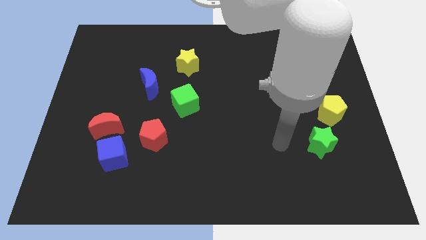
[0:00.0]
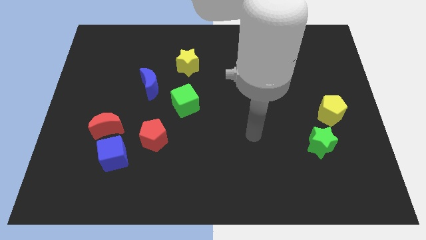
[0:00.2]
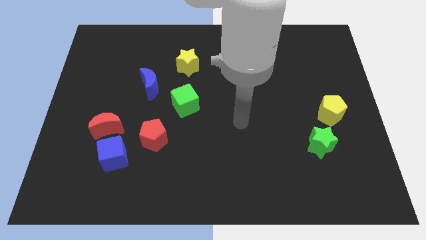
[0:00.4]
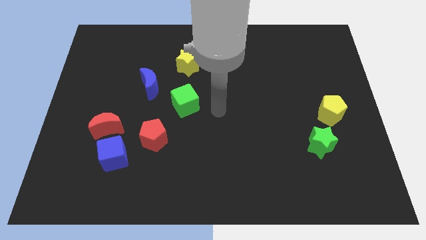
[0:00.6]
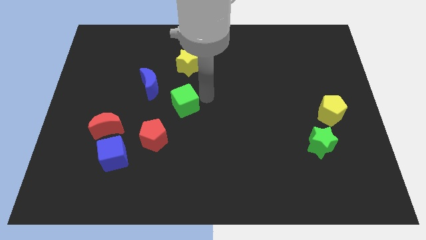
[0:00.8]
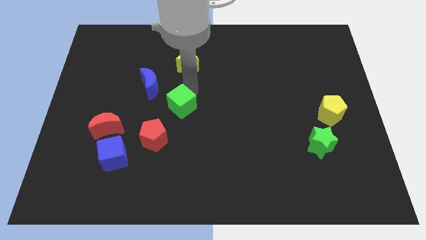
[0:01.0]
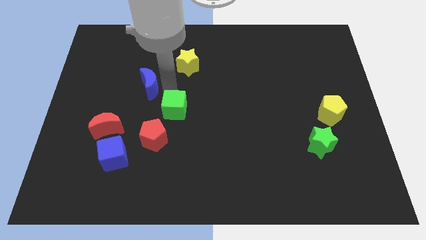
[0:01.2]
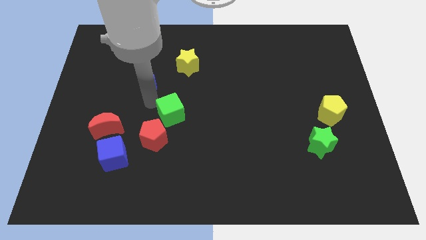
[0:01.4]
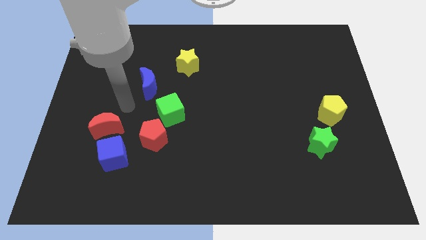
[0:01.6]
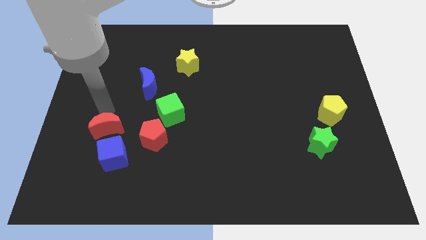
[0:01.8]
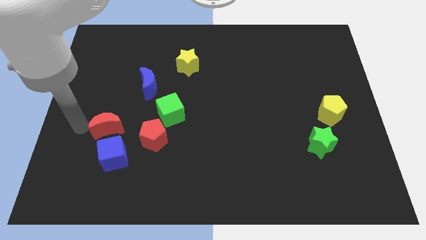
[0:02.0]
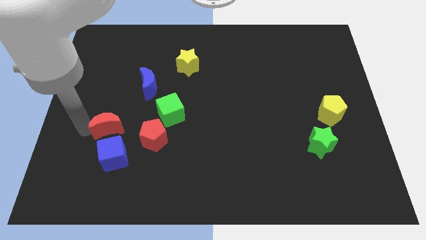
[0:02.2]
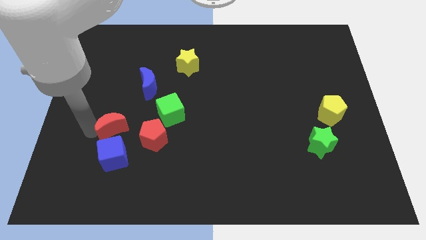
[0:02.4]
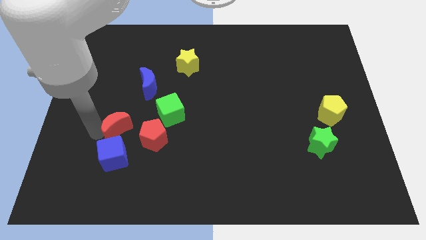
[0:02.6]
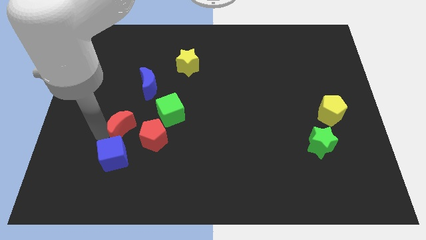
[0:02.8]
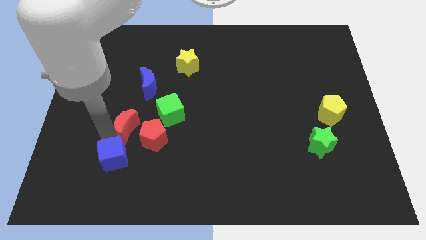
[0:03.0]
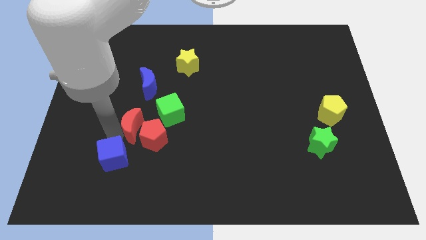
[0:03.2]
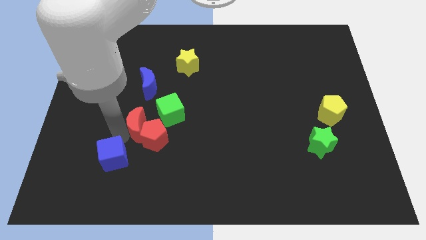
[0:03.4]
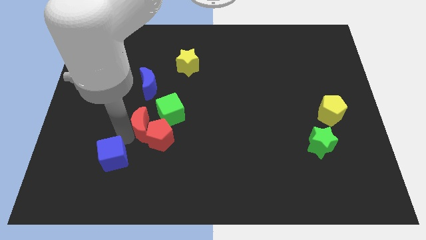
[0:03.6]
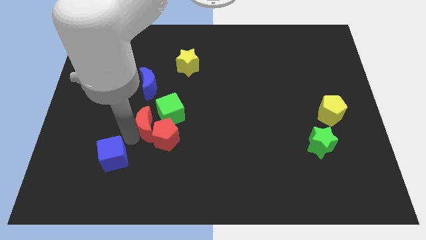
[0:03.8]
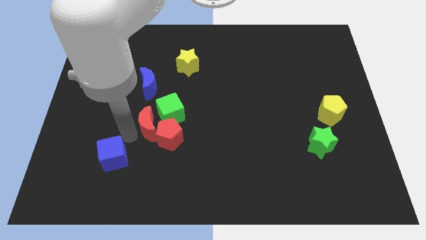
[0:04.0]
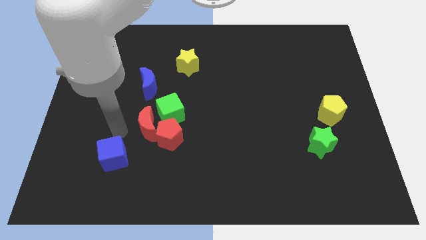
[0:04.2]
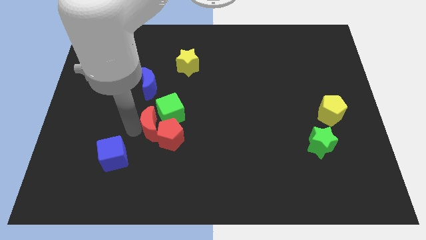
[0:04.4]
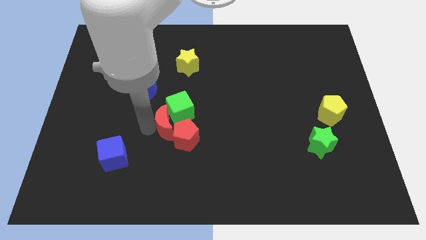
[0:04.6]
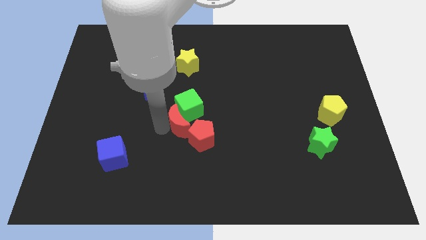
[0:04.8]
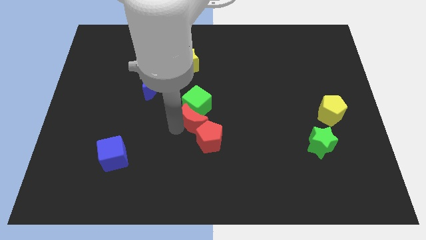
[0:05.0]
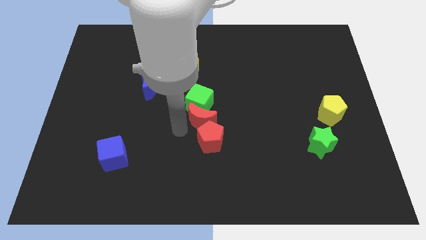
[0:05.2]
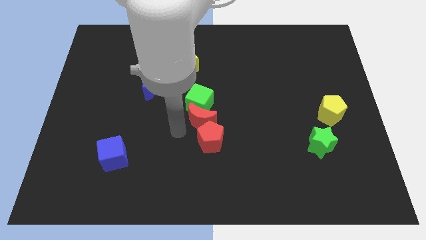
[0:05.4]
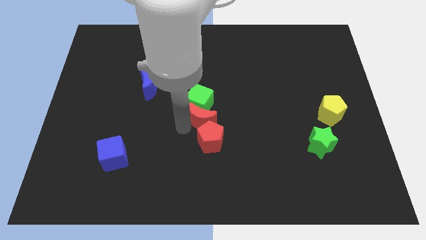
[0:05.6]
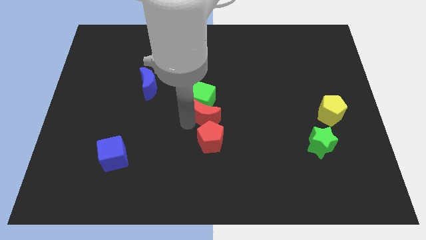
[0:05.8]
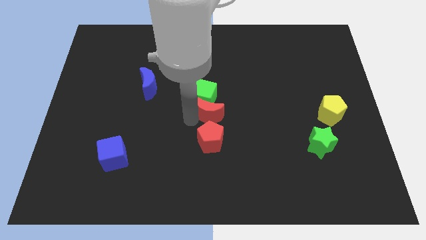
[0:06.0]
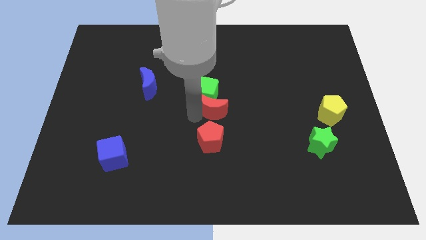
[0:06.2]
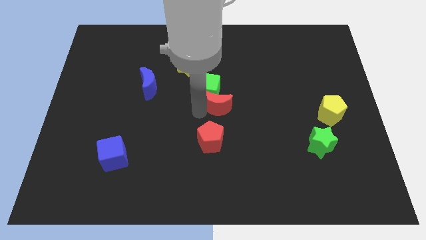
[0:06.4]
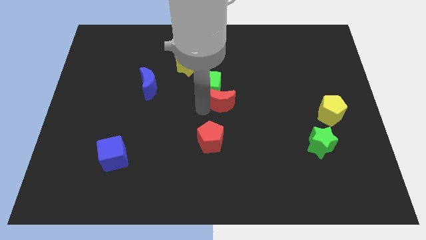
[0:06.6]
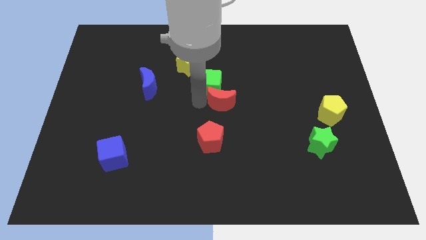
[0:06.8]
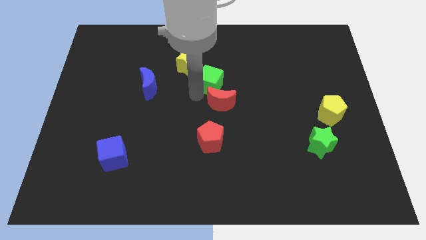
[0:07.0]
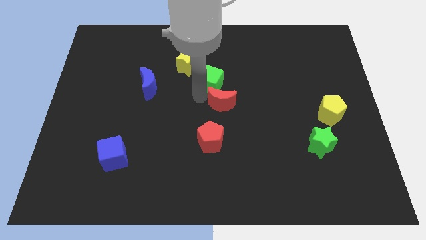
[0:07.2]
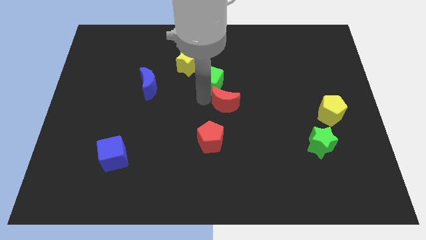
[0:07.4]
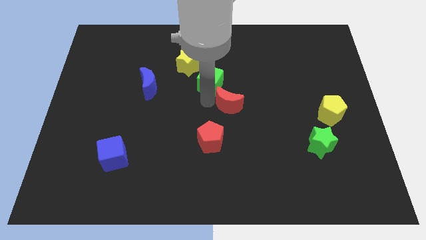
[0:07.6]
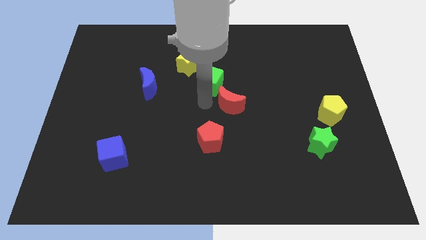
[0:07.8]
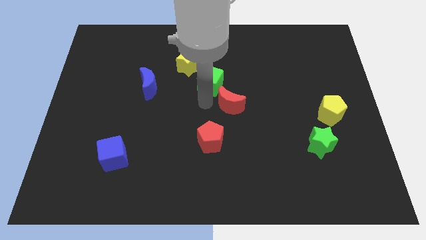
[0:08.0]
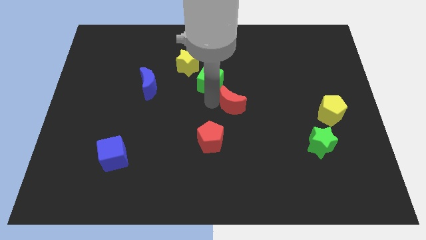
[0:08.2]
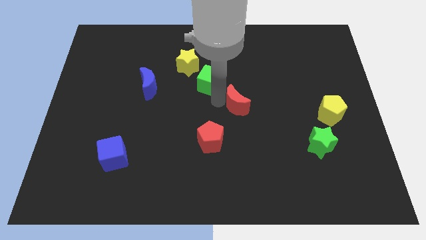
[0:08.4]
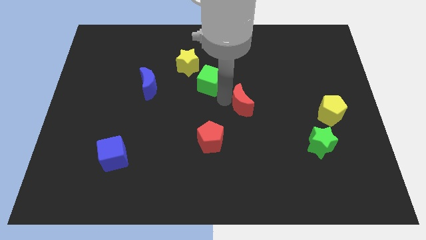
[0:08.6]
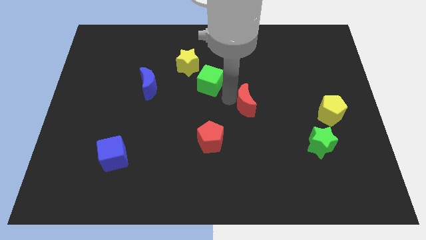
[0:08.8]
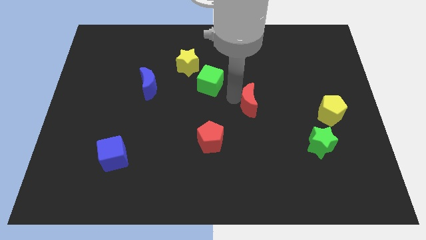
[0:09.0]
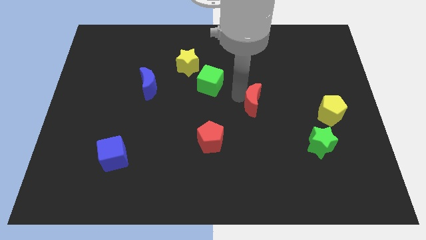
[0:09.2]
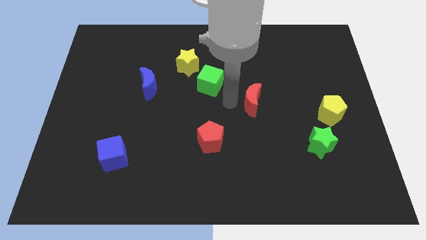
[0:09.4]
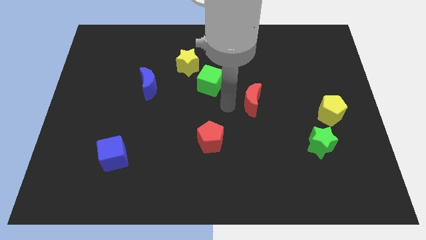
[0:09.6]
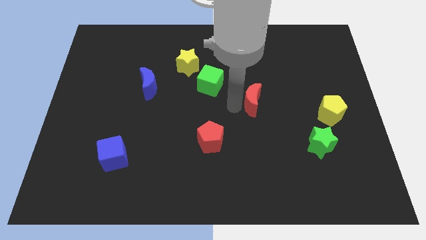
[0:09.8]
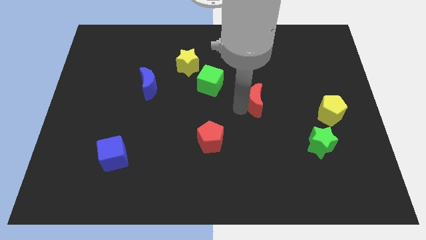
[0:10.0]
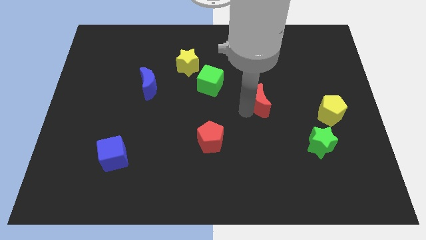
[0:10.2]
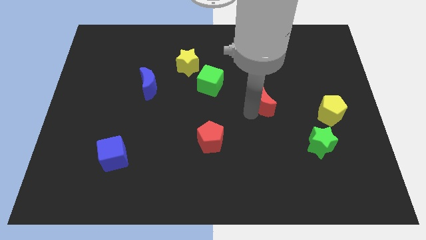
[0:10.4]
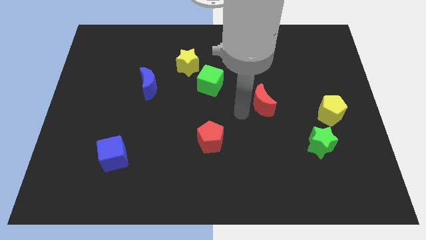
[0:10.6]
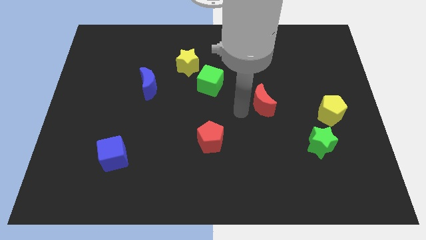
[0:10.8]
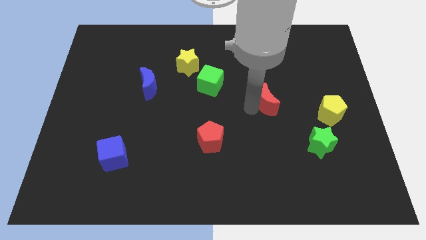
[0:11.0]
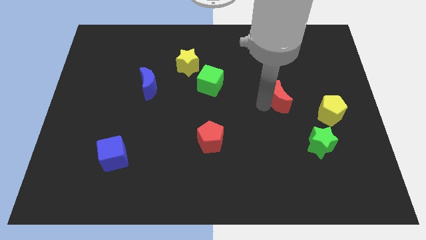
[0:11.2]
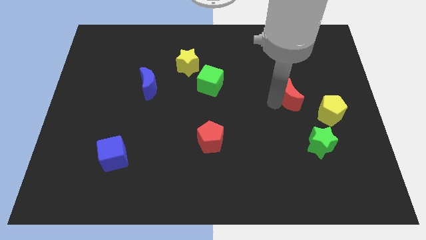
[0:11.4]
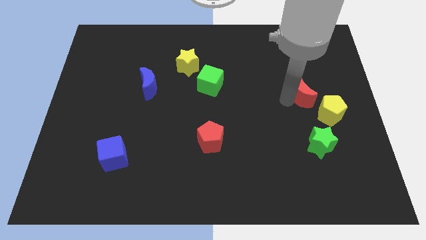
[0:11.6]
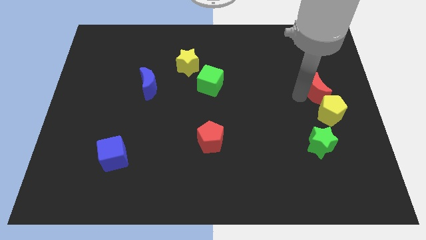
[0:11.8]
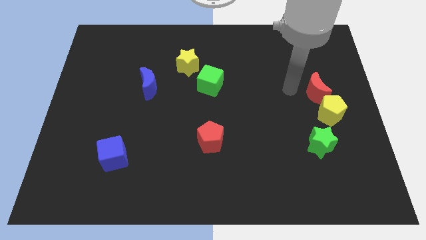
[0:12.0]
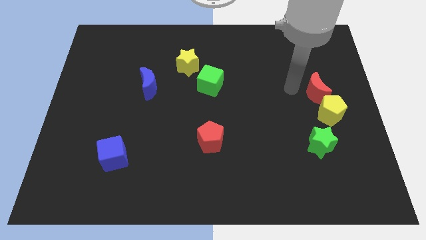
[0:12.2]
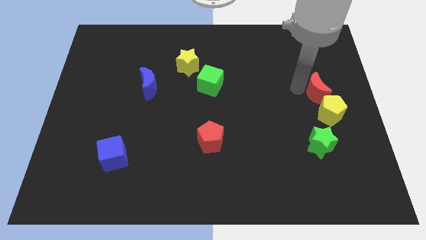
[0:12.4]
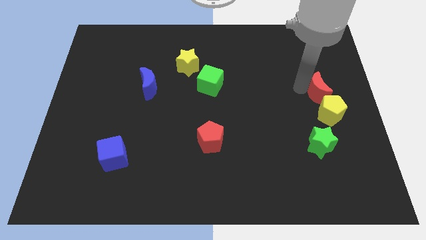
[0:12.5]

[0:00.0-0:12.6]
push the red moon to the right side
